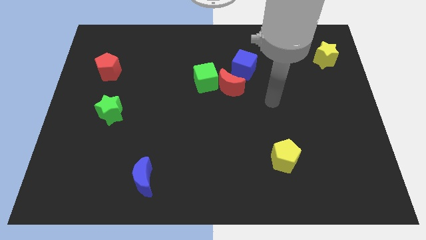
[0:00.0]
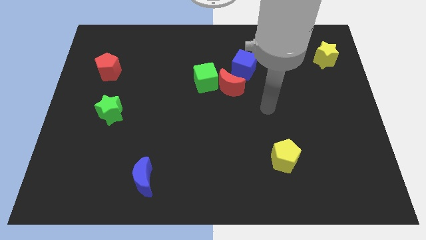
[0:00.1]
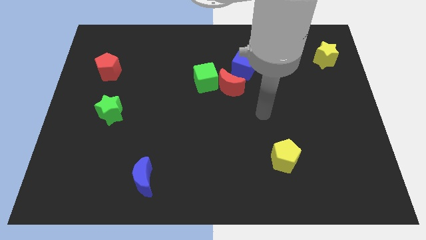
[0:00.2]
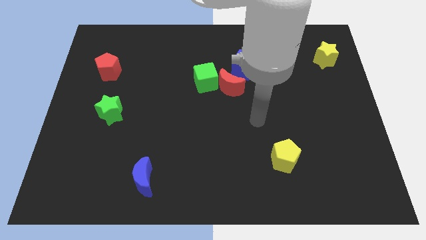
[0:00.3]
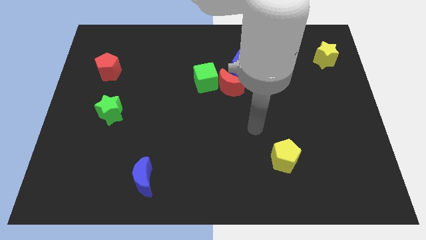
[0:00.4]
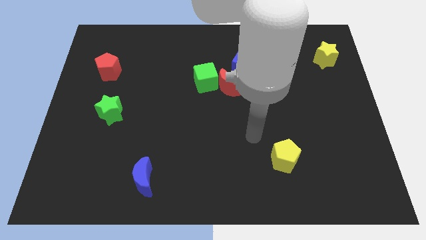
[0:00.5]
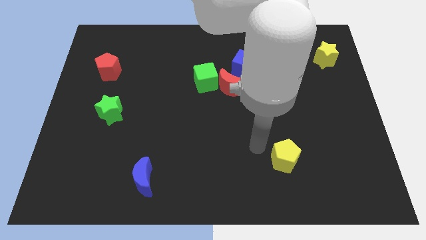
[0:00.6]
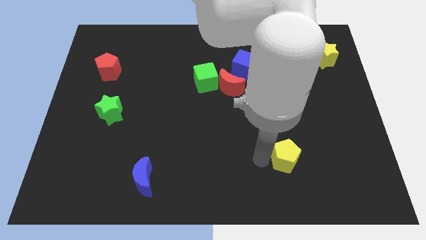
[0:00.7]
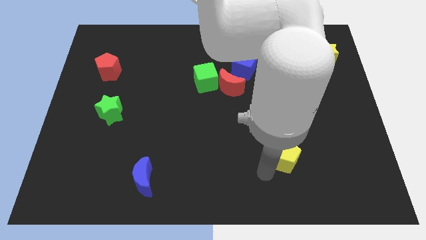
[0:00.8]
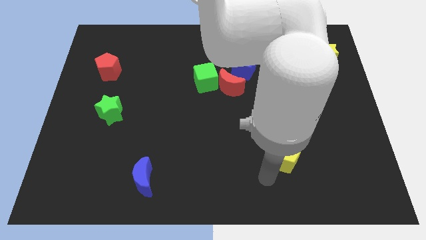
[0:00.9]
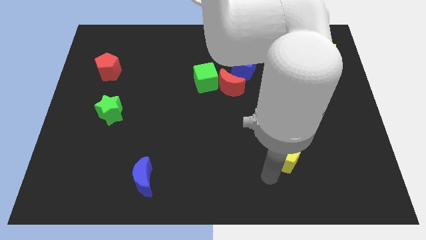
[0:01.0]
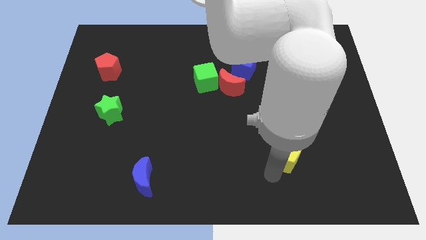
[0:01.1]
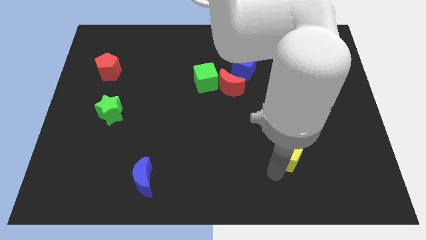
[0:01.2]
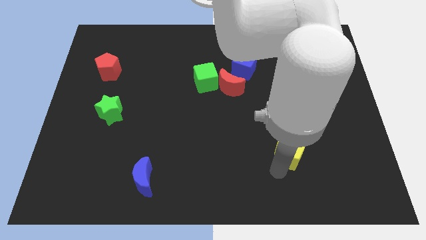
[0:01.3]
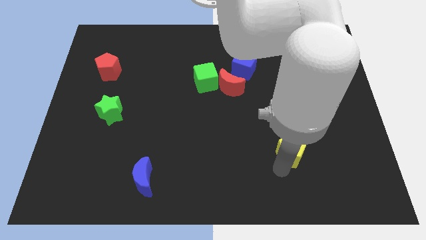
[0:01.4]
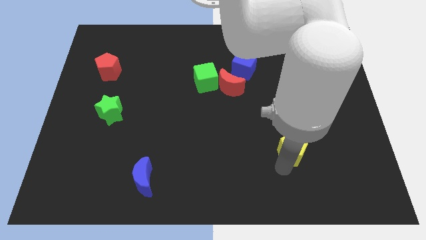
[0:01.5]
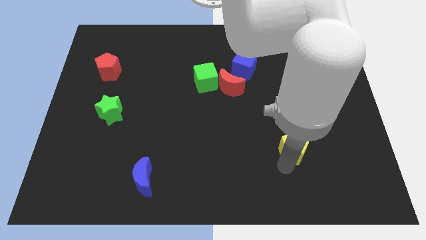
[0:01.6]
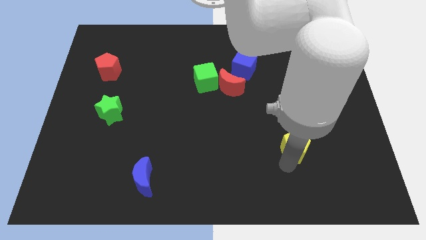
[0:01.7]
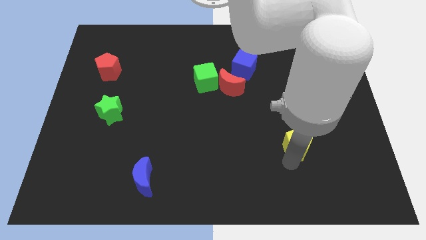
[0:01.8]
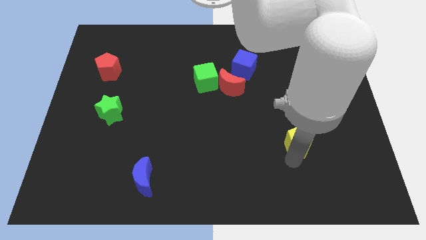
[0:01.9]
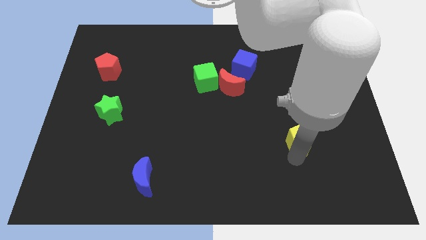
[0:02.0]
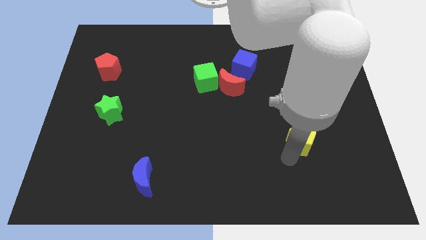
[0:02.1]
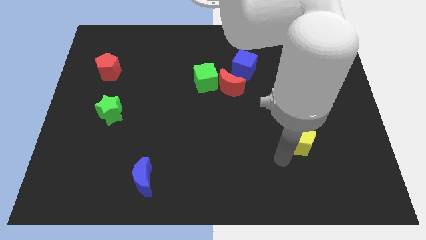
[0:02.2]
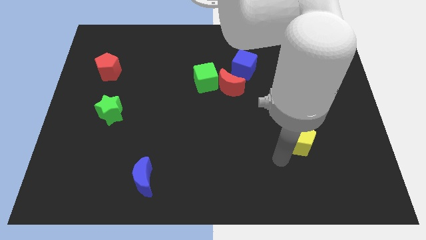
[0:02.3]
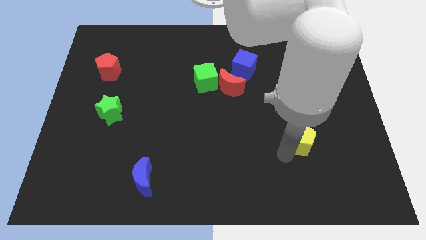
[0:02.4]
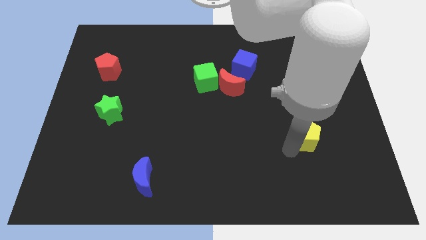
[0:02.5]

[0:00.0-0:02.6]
slide the yellow pentagon somewhat up and then to the right

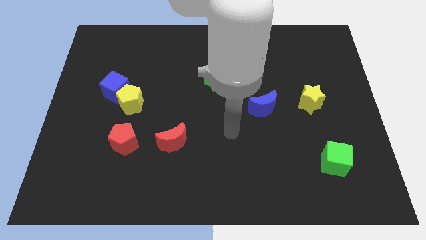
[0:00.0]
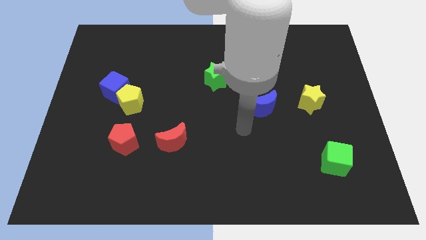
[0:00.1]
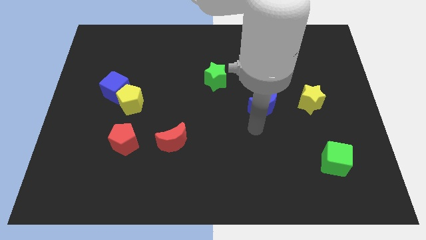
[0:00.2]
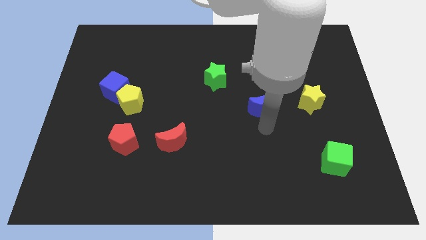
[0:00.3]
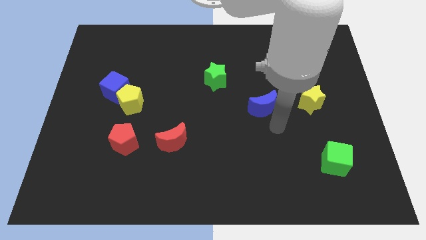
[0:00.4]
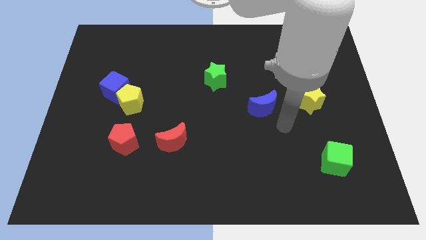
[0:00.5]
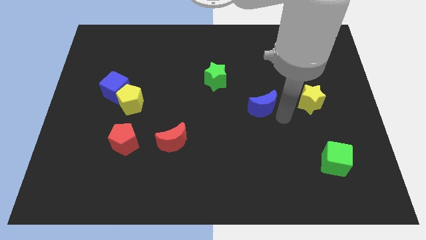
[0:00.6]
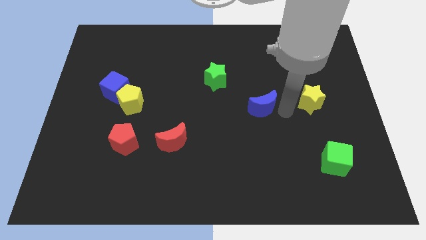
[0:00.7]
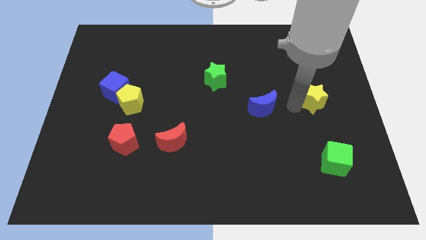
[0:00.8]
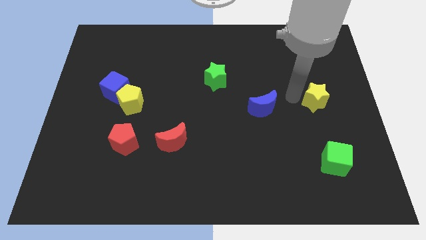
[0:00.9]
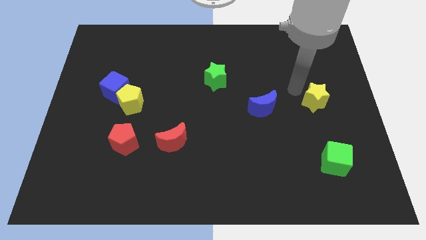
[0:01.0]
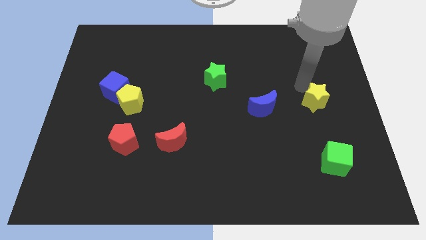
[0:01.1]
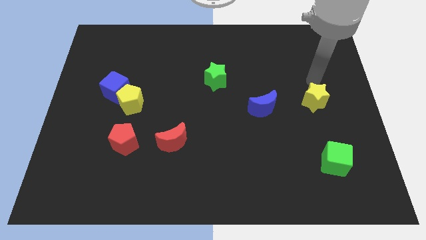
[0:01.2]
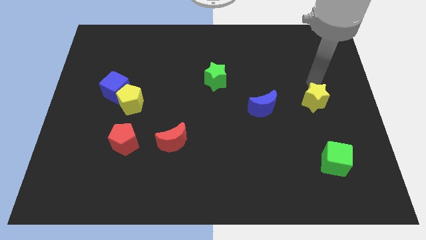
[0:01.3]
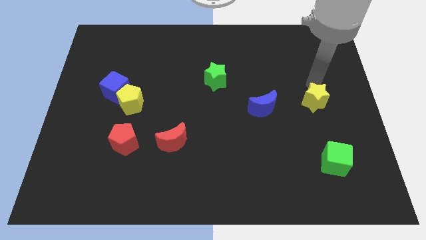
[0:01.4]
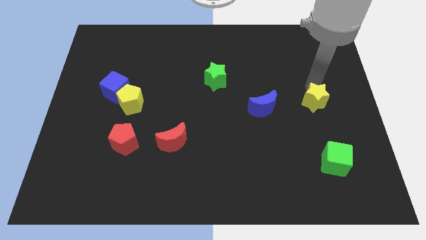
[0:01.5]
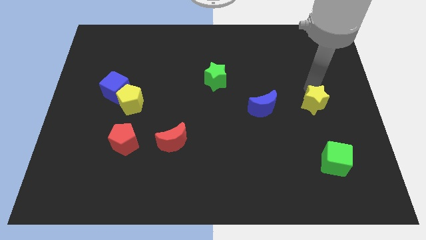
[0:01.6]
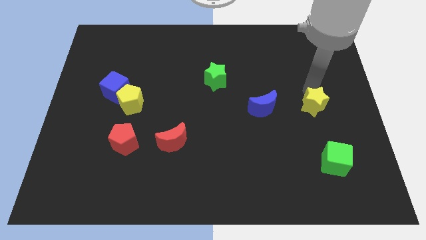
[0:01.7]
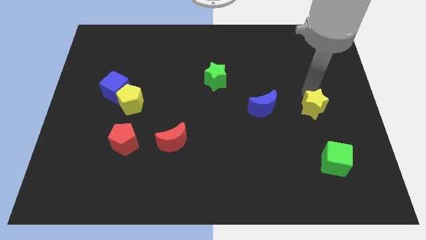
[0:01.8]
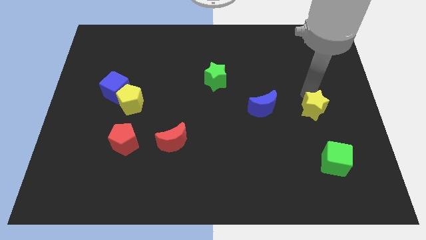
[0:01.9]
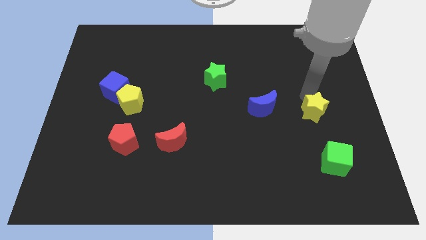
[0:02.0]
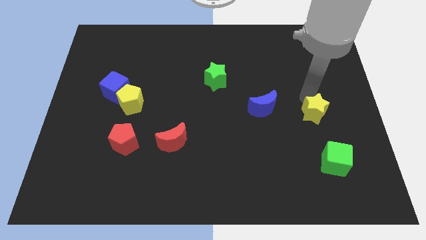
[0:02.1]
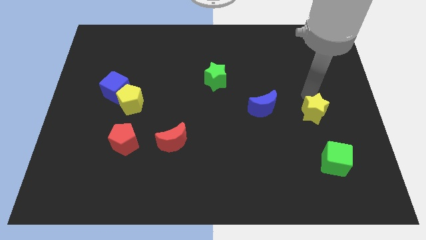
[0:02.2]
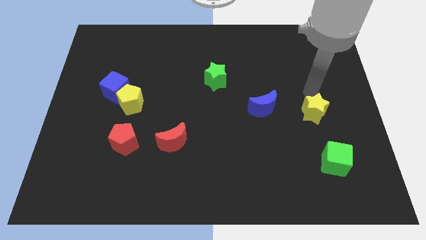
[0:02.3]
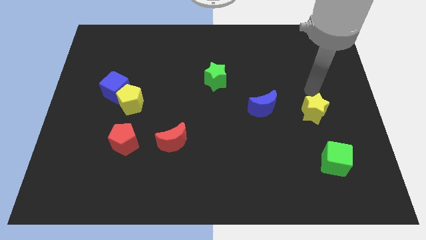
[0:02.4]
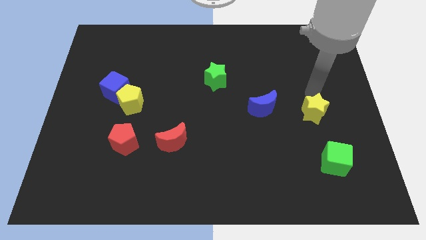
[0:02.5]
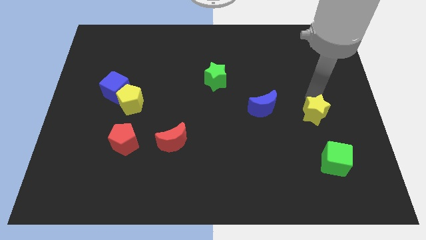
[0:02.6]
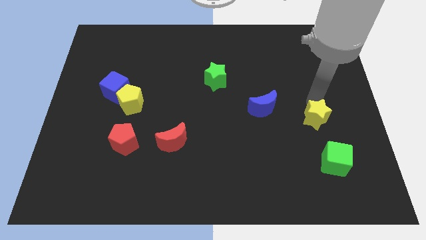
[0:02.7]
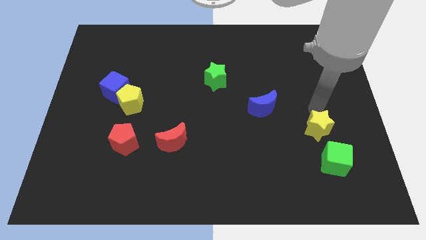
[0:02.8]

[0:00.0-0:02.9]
push the yellow star slightly downwards

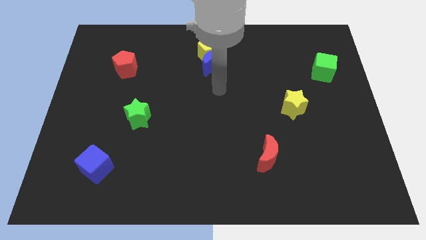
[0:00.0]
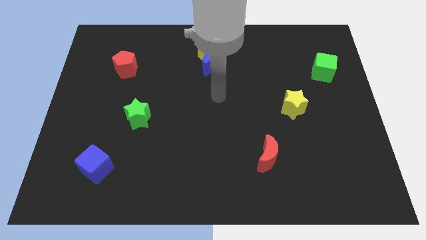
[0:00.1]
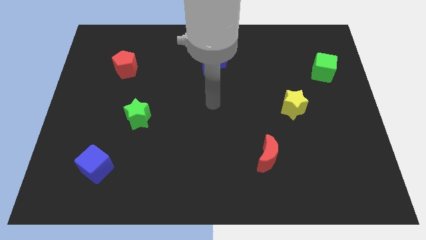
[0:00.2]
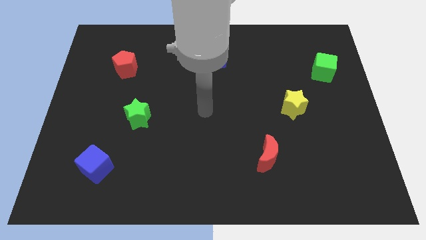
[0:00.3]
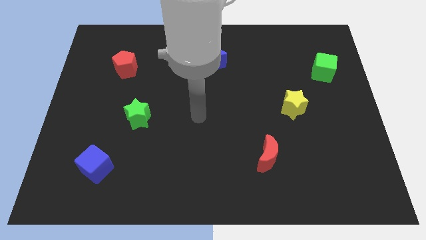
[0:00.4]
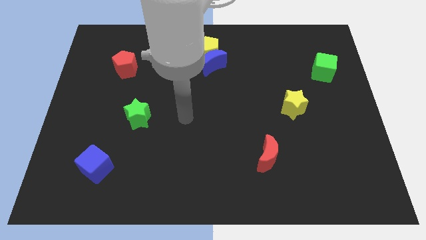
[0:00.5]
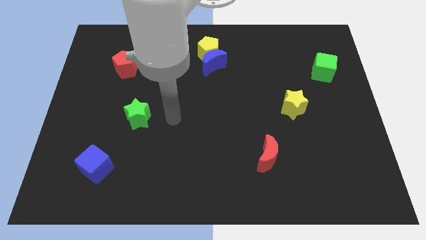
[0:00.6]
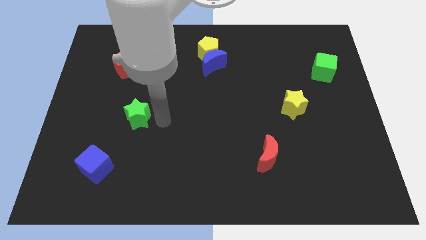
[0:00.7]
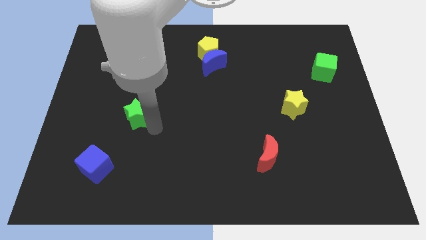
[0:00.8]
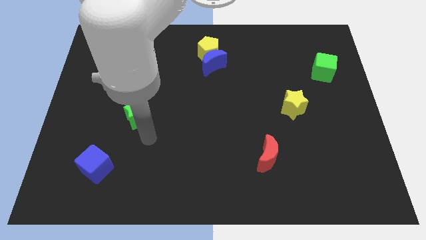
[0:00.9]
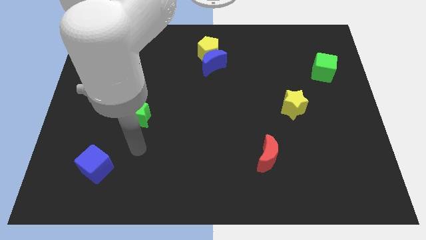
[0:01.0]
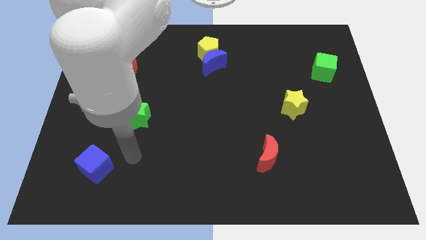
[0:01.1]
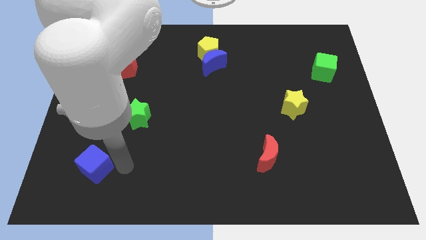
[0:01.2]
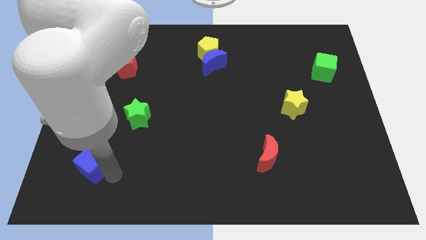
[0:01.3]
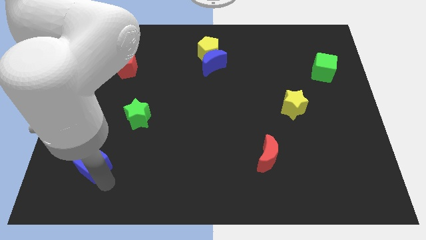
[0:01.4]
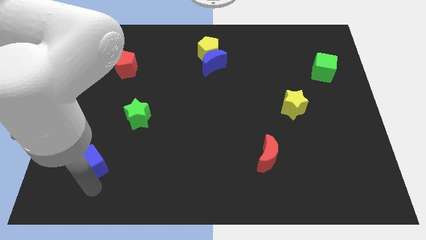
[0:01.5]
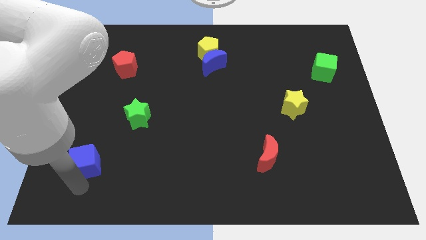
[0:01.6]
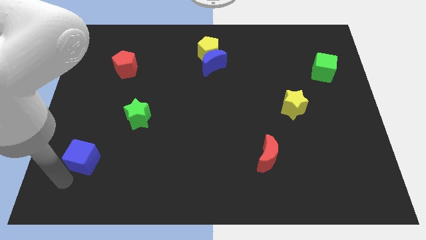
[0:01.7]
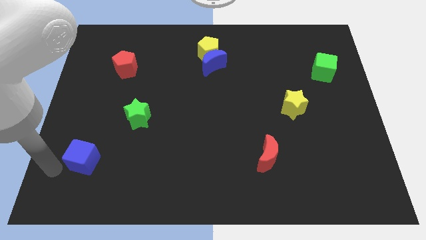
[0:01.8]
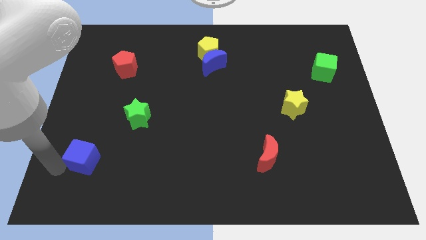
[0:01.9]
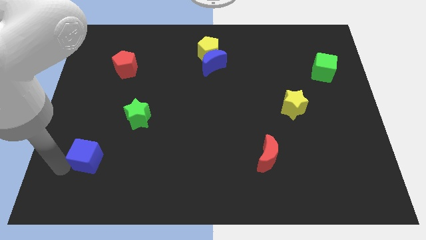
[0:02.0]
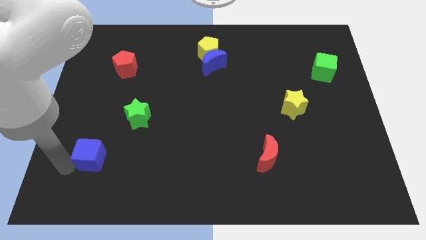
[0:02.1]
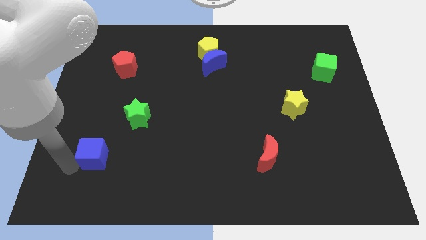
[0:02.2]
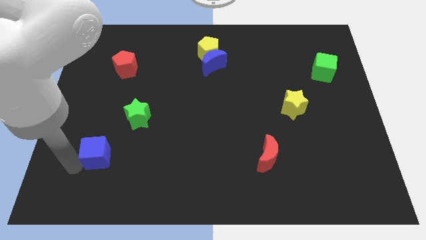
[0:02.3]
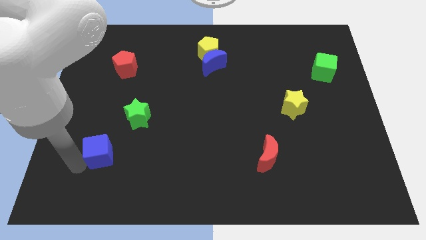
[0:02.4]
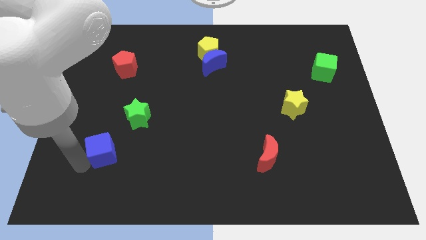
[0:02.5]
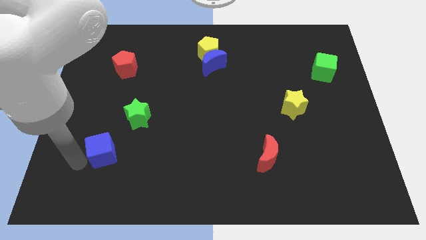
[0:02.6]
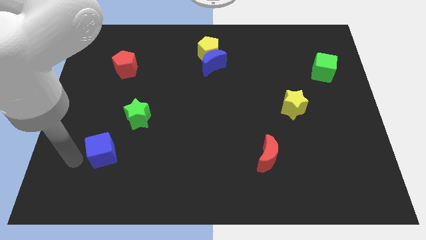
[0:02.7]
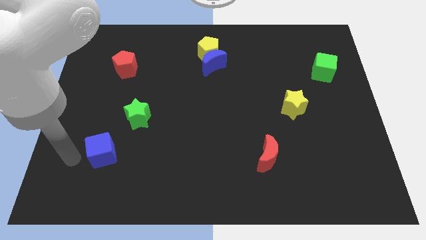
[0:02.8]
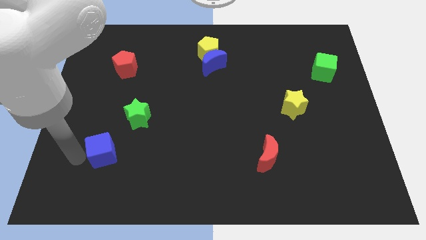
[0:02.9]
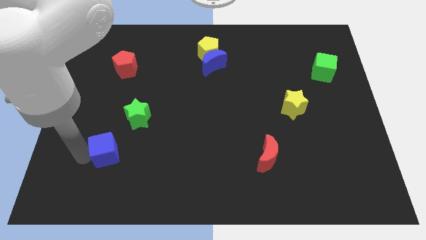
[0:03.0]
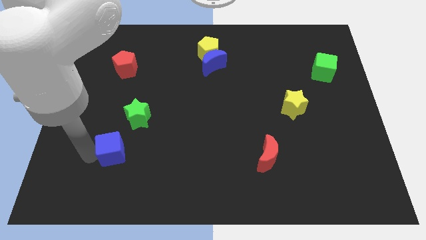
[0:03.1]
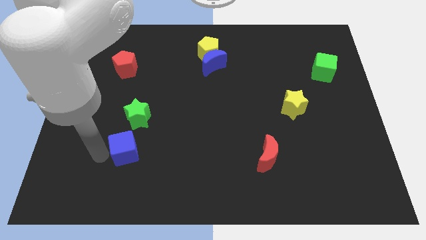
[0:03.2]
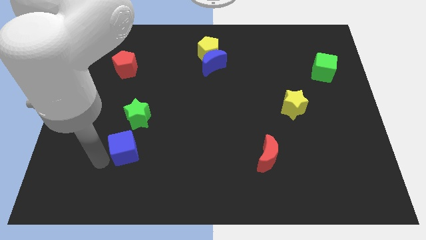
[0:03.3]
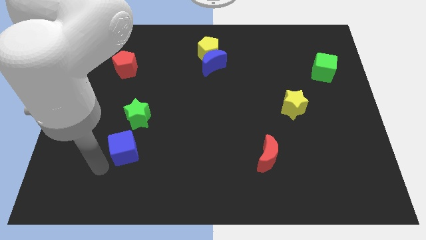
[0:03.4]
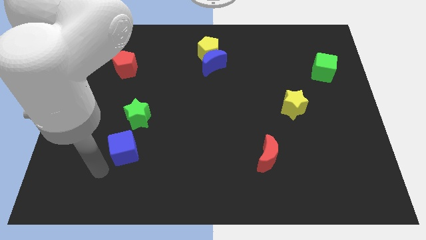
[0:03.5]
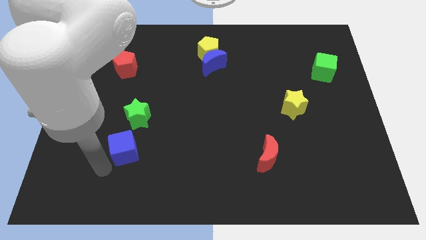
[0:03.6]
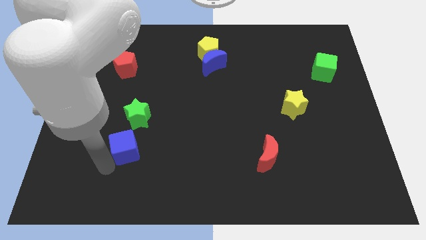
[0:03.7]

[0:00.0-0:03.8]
slide the blue cube upwards and to the right diagonally somewhat
